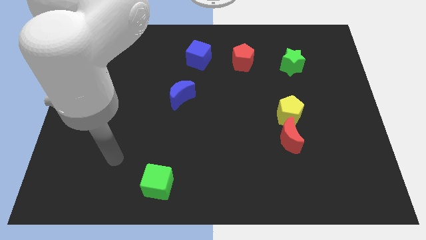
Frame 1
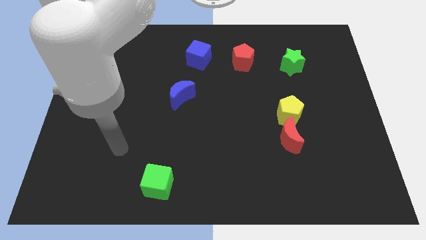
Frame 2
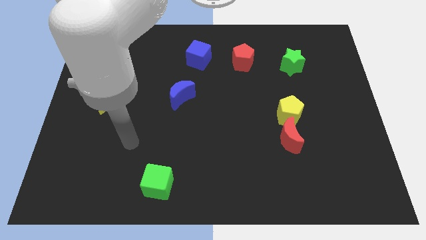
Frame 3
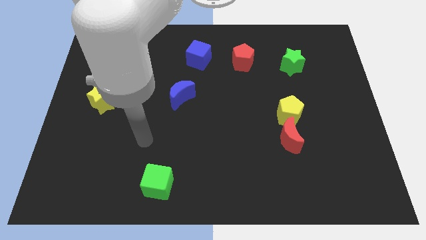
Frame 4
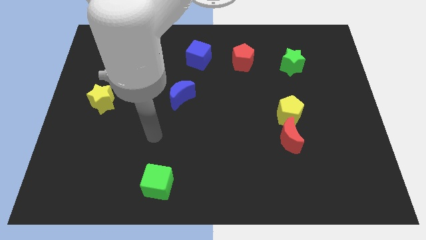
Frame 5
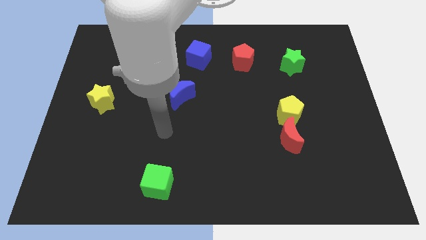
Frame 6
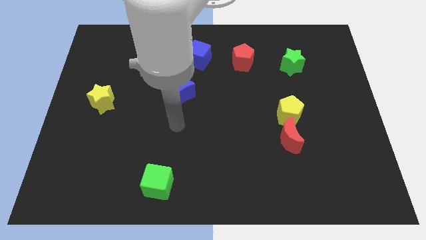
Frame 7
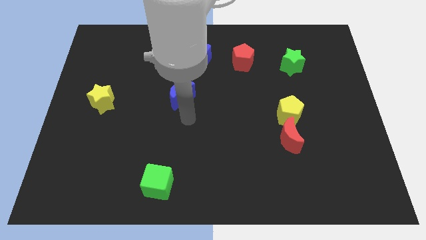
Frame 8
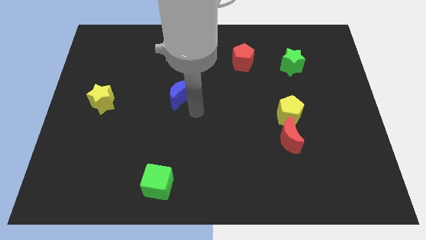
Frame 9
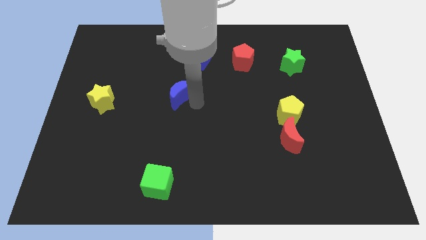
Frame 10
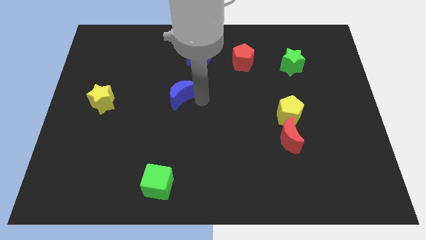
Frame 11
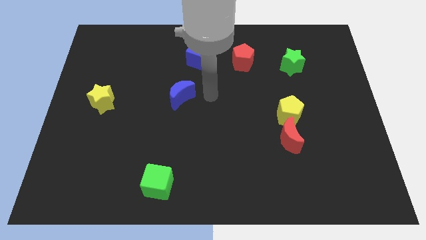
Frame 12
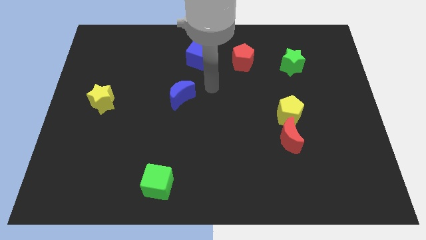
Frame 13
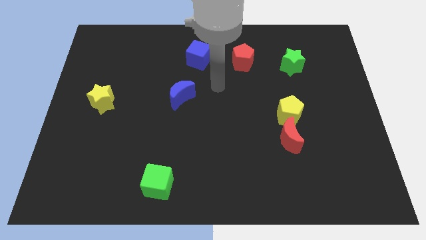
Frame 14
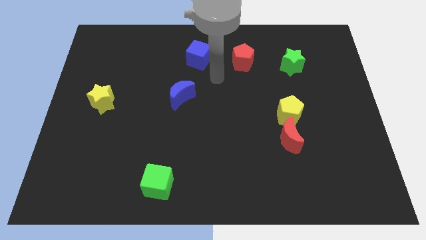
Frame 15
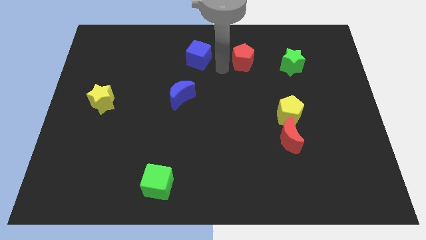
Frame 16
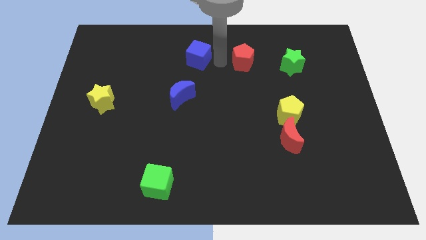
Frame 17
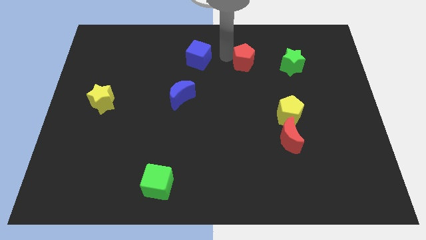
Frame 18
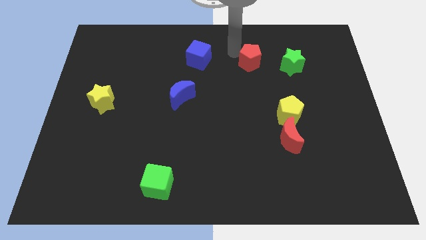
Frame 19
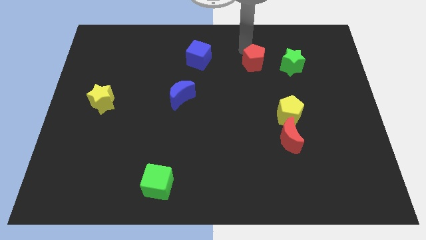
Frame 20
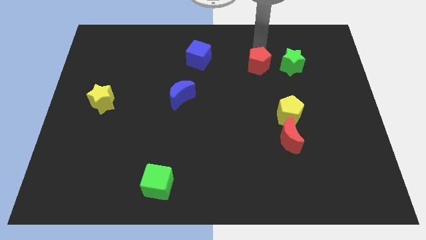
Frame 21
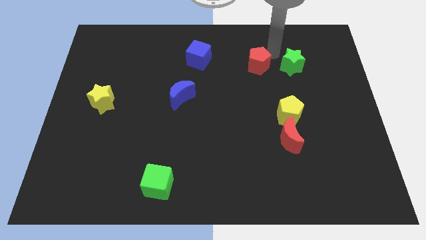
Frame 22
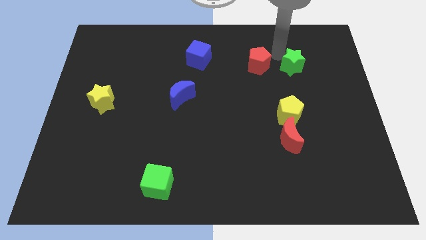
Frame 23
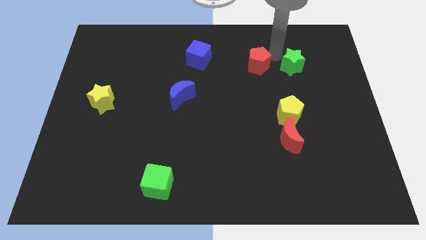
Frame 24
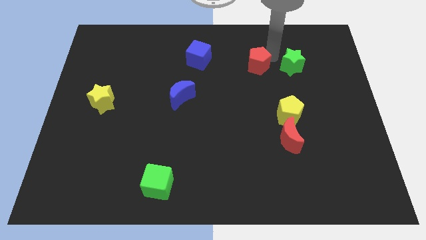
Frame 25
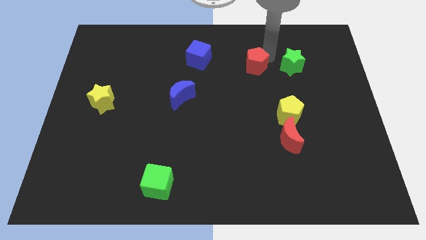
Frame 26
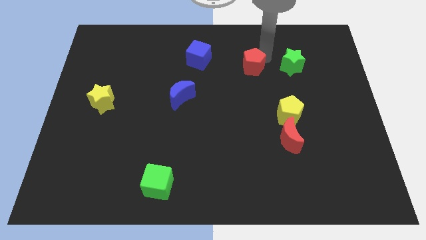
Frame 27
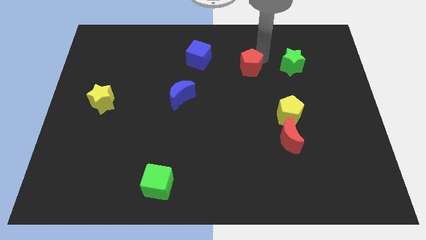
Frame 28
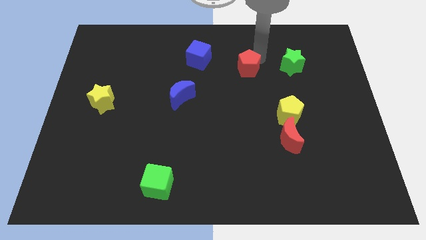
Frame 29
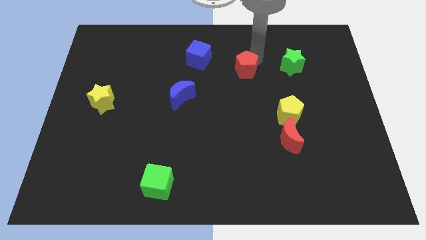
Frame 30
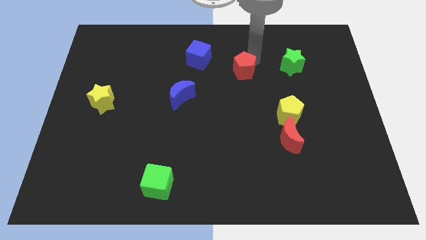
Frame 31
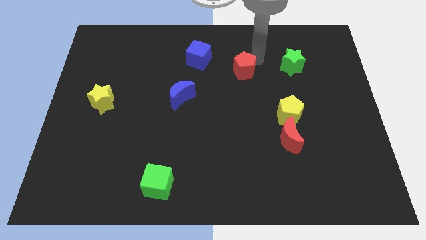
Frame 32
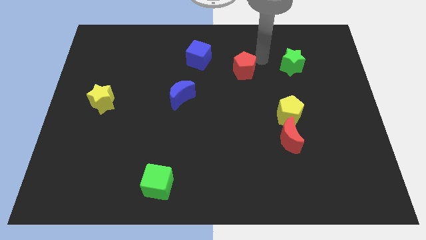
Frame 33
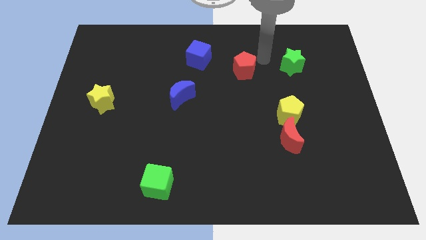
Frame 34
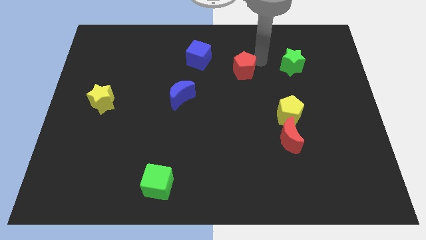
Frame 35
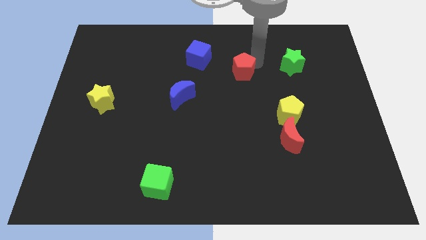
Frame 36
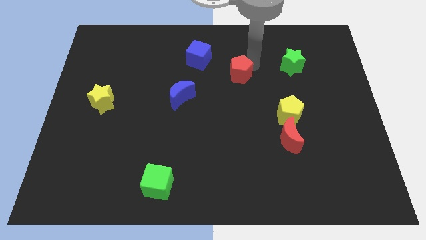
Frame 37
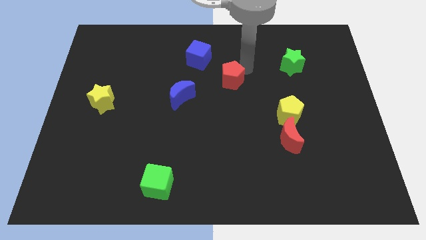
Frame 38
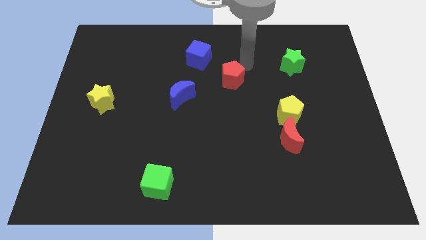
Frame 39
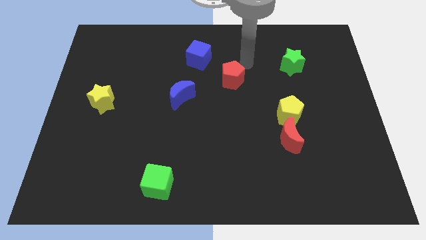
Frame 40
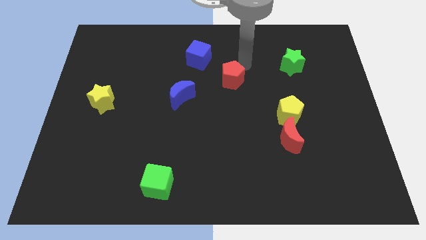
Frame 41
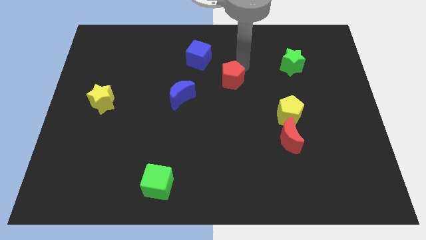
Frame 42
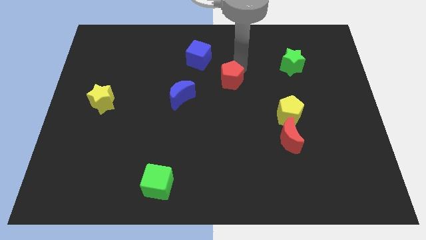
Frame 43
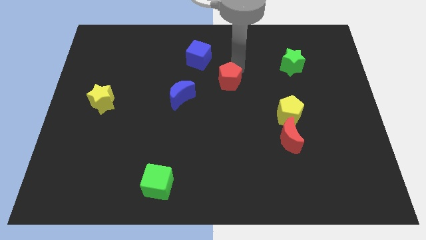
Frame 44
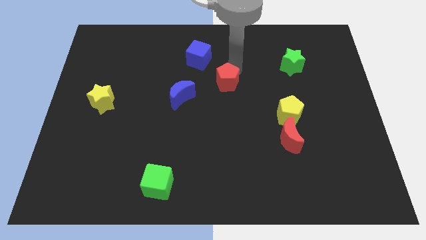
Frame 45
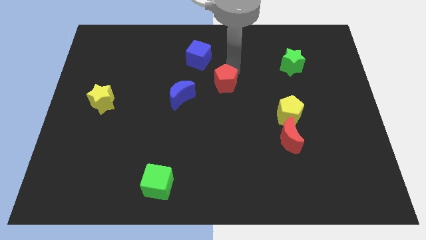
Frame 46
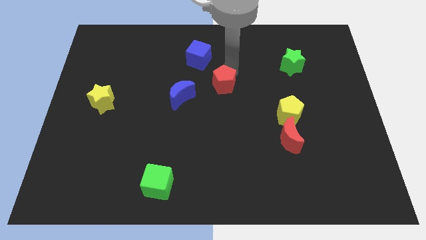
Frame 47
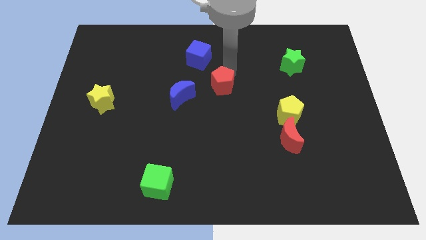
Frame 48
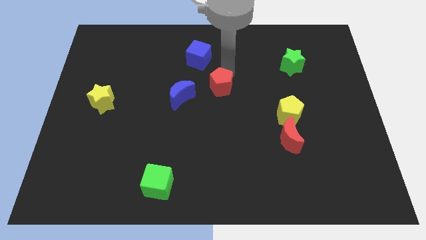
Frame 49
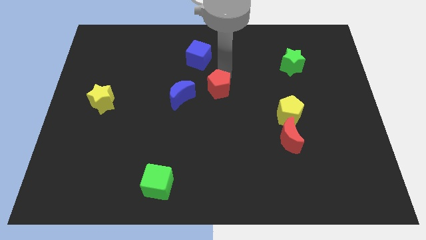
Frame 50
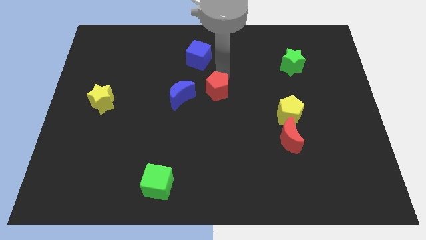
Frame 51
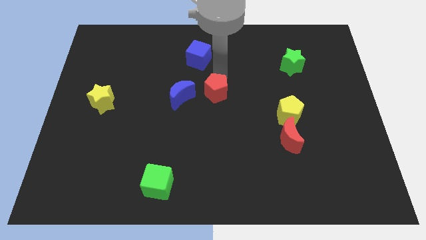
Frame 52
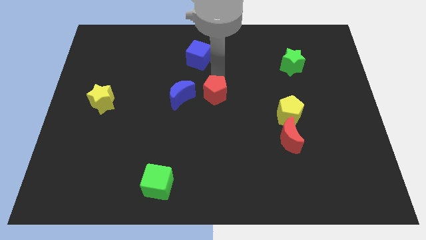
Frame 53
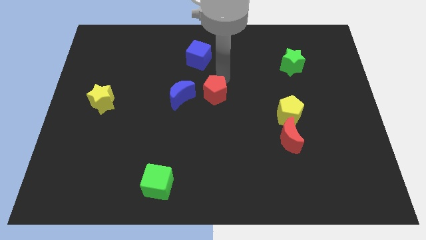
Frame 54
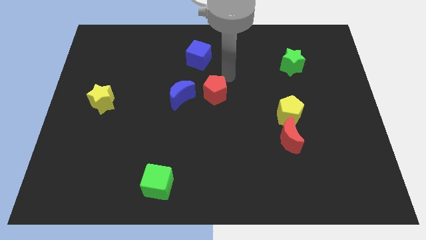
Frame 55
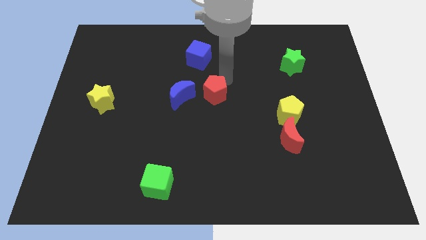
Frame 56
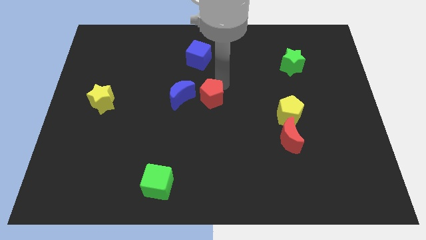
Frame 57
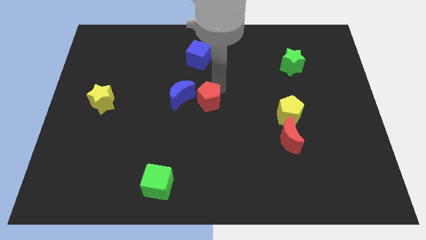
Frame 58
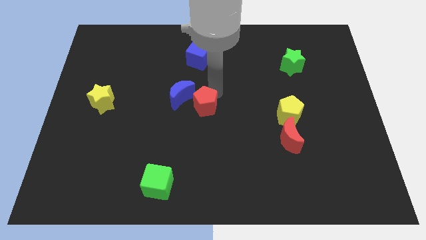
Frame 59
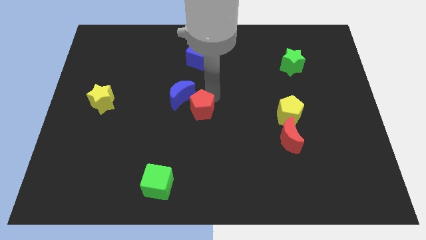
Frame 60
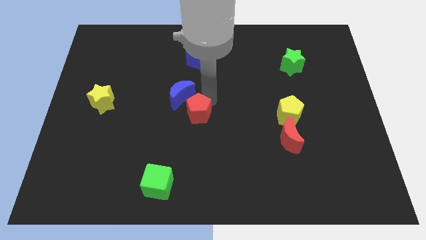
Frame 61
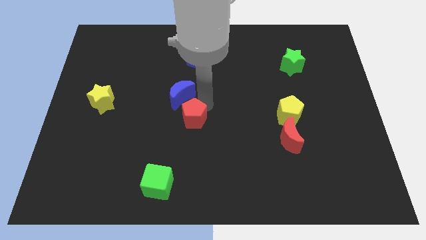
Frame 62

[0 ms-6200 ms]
push the red pentagon down and left diagonally

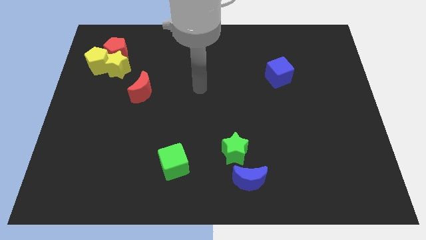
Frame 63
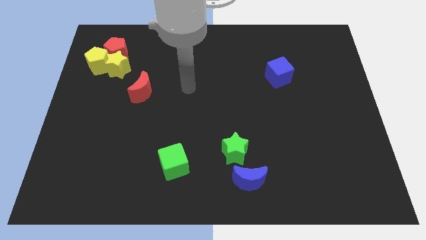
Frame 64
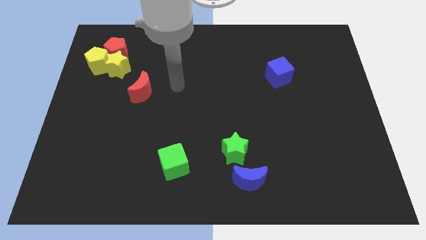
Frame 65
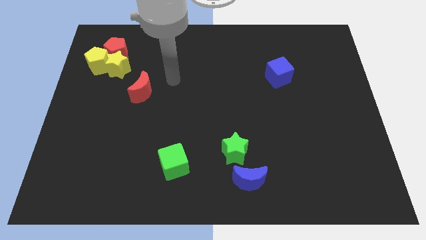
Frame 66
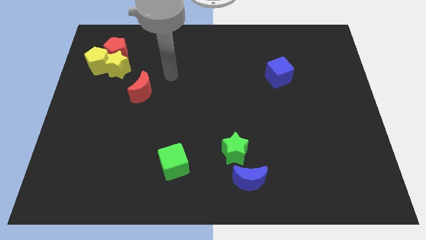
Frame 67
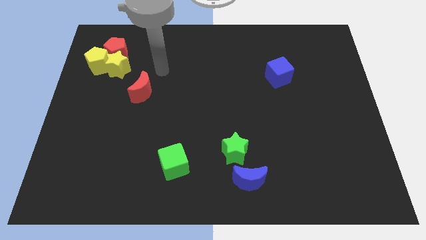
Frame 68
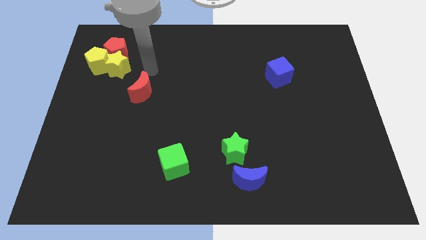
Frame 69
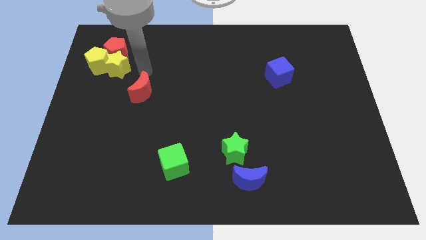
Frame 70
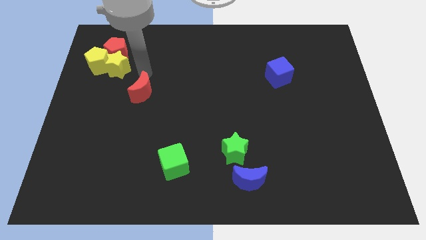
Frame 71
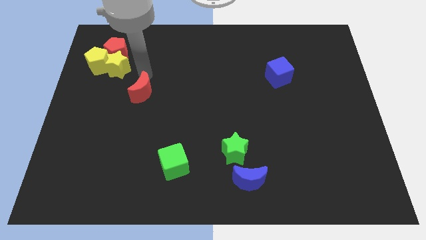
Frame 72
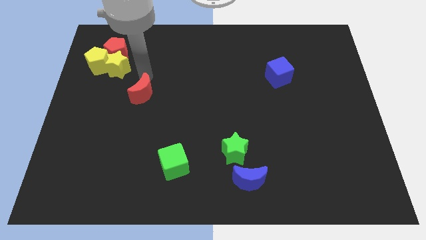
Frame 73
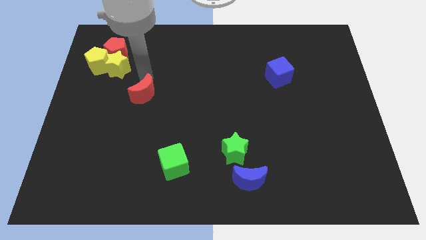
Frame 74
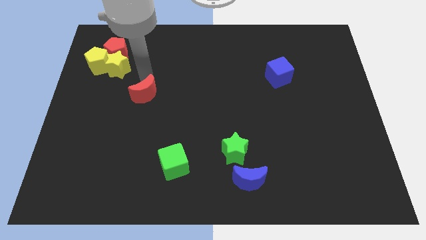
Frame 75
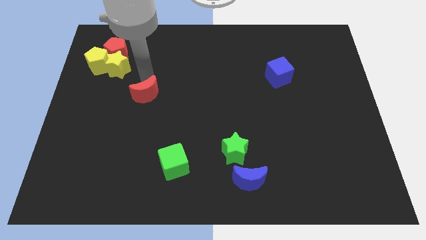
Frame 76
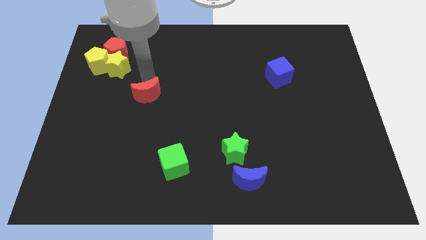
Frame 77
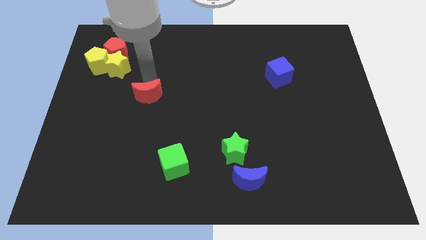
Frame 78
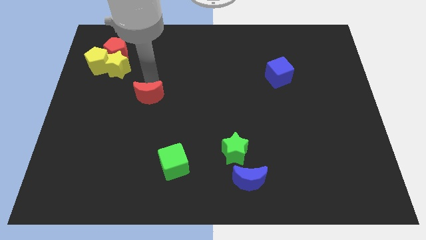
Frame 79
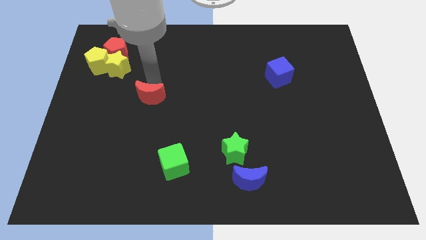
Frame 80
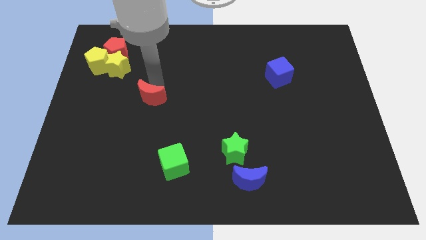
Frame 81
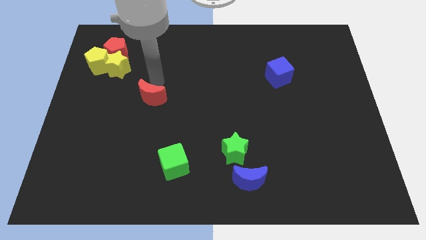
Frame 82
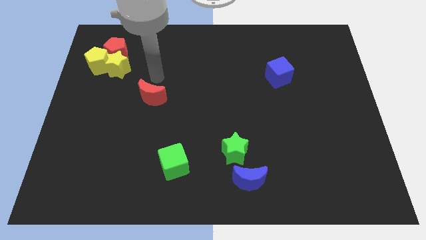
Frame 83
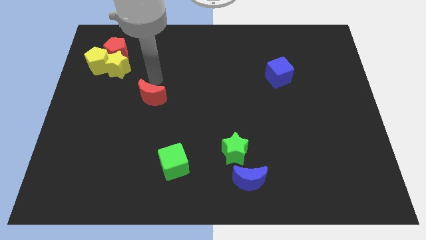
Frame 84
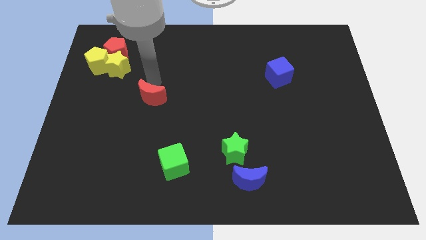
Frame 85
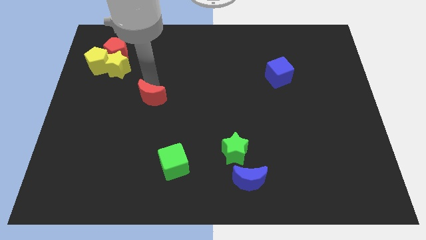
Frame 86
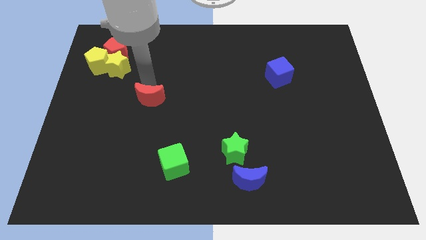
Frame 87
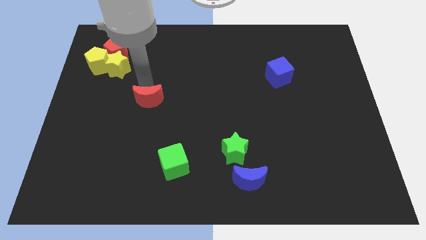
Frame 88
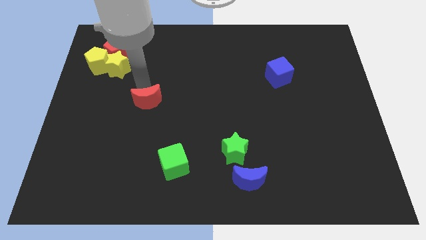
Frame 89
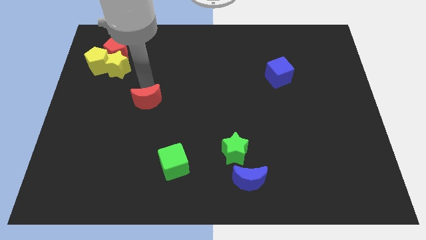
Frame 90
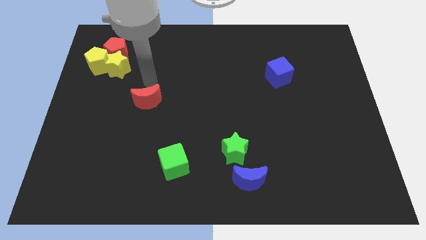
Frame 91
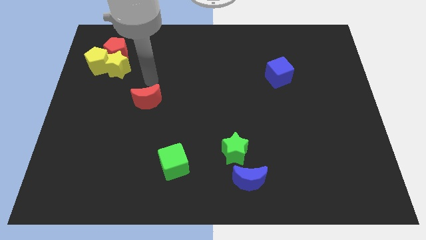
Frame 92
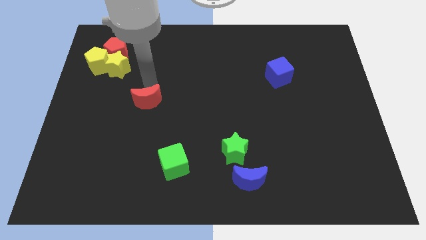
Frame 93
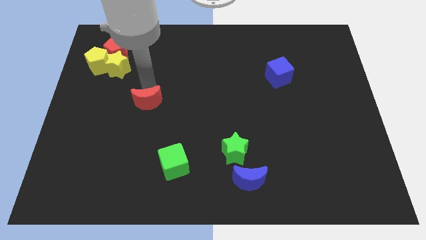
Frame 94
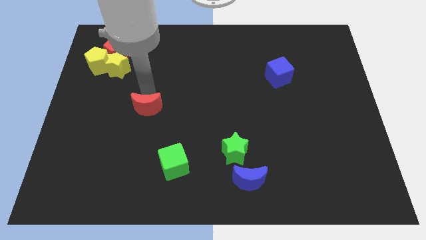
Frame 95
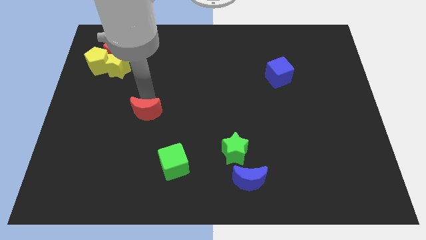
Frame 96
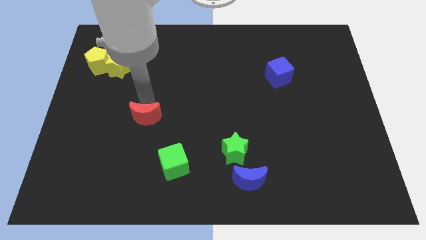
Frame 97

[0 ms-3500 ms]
slightly slide the red moon down
